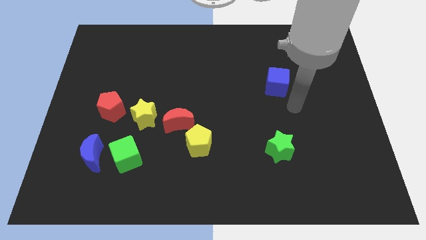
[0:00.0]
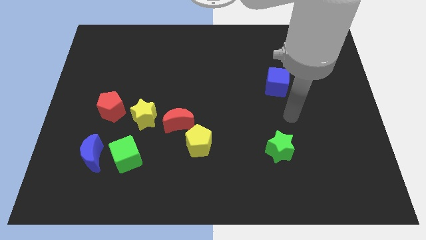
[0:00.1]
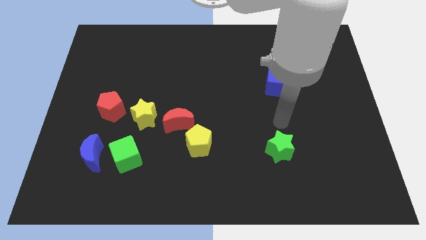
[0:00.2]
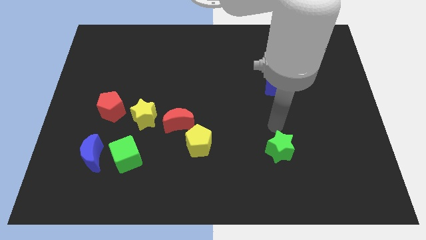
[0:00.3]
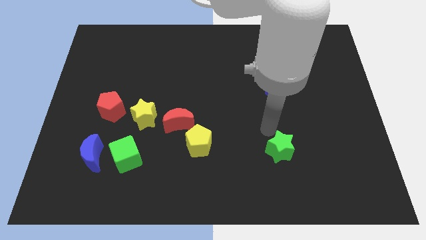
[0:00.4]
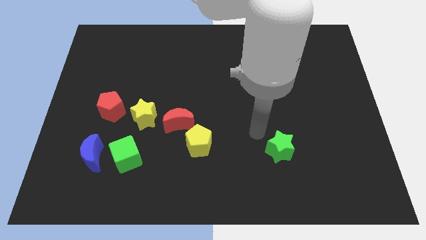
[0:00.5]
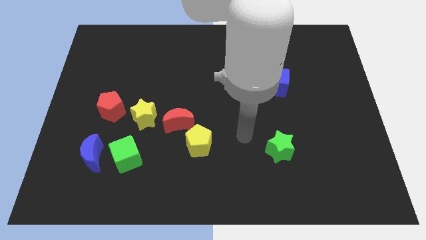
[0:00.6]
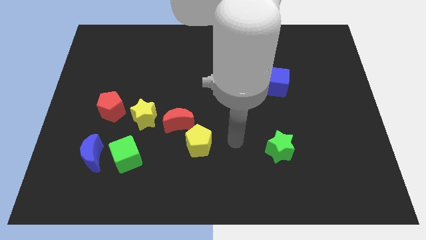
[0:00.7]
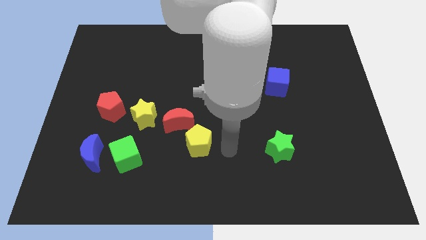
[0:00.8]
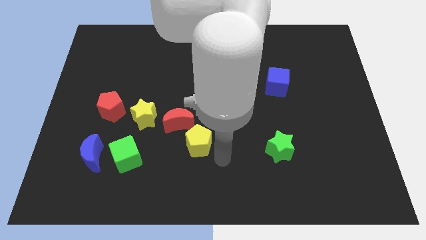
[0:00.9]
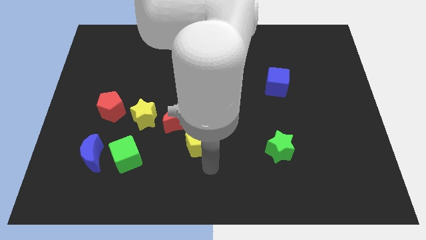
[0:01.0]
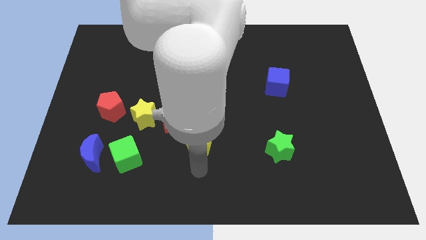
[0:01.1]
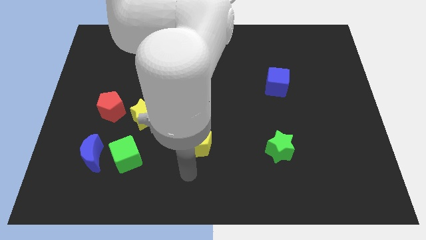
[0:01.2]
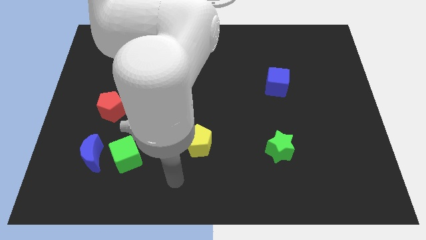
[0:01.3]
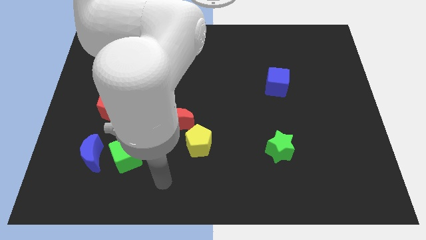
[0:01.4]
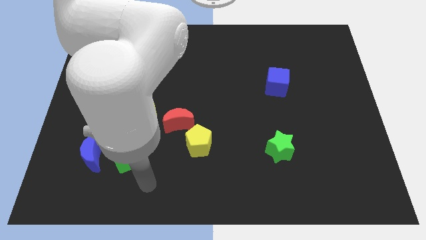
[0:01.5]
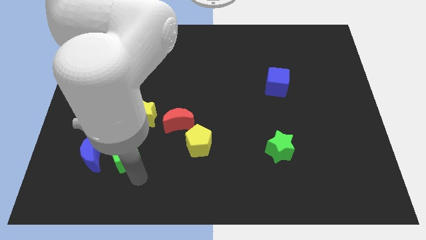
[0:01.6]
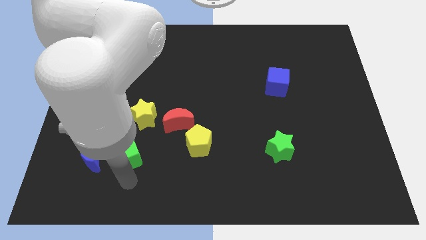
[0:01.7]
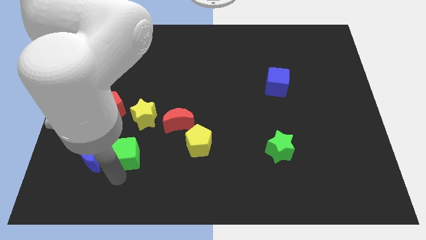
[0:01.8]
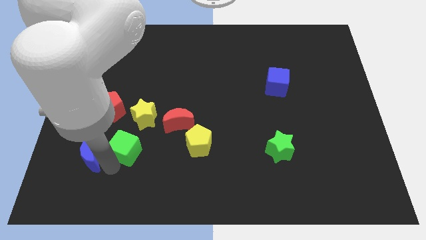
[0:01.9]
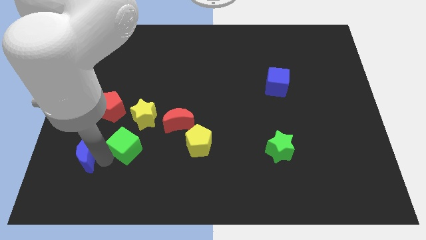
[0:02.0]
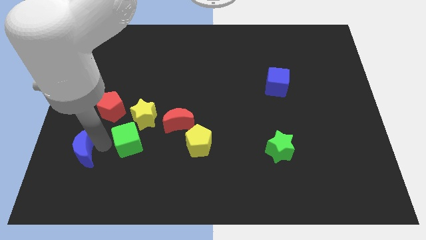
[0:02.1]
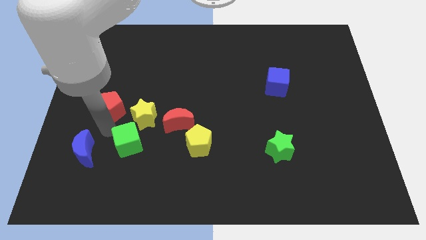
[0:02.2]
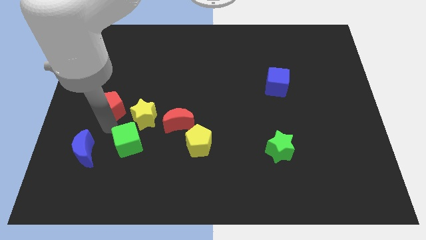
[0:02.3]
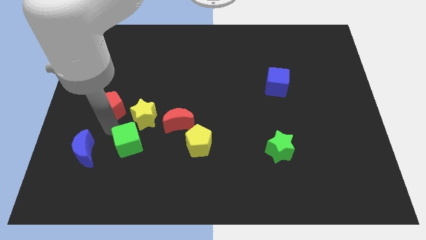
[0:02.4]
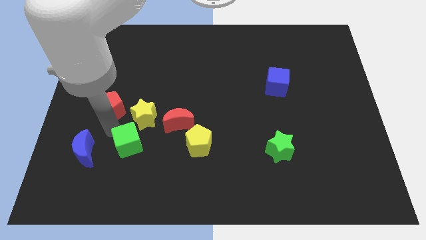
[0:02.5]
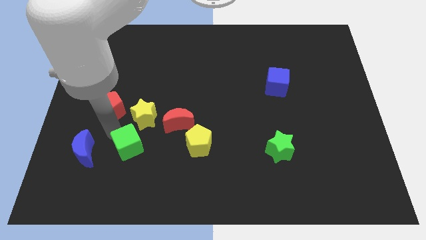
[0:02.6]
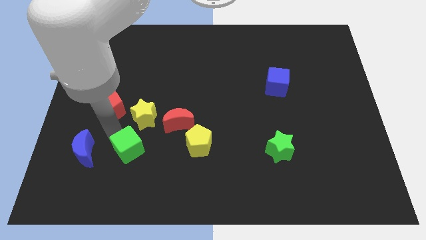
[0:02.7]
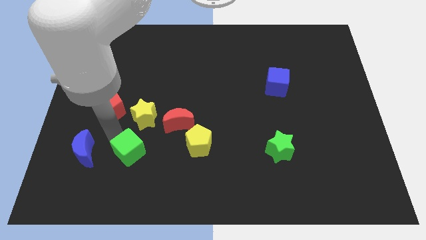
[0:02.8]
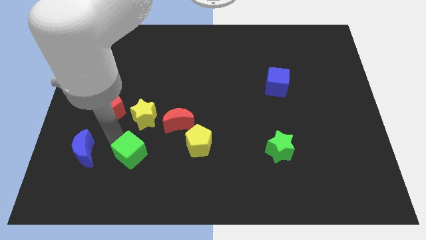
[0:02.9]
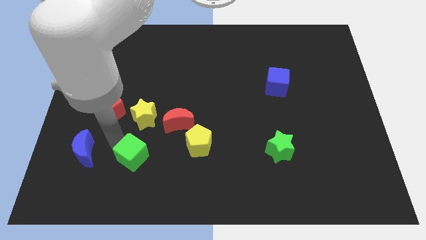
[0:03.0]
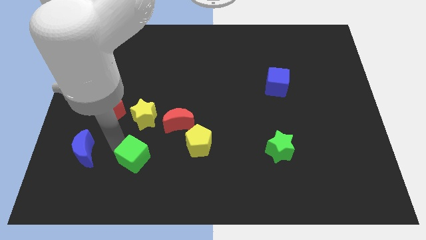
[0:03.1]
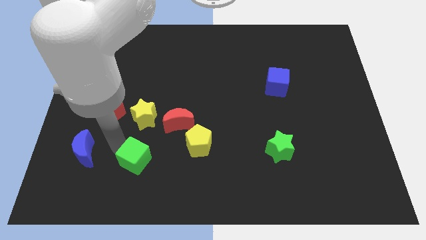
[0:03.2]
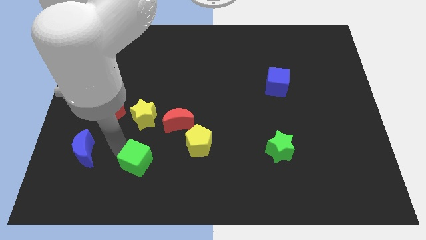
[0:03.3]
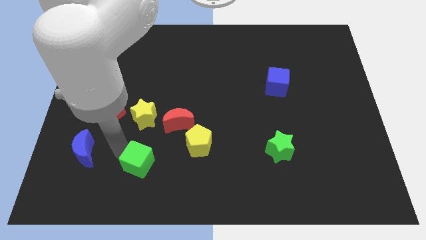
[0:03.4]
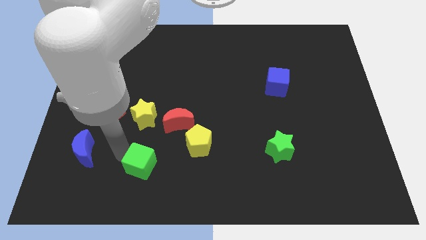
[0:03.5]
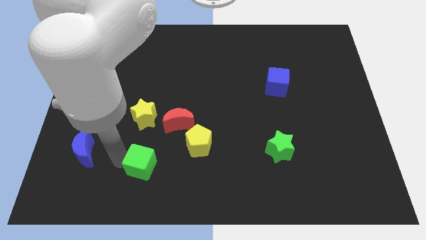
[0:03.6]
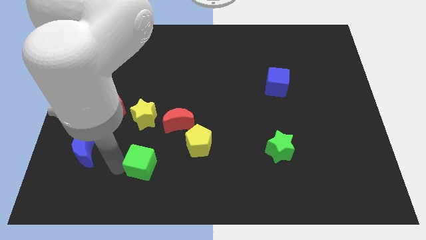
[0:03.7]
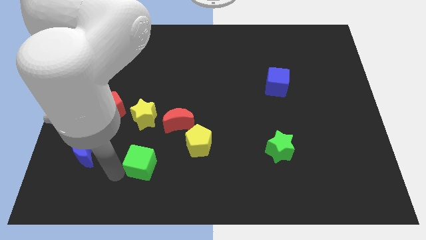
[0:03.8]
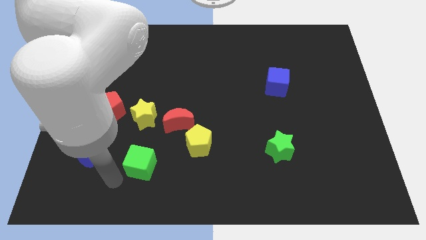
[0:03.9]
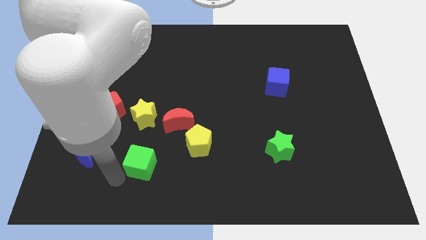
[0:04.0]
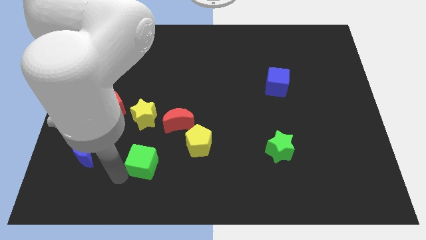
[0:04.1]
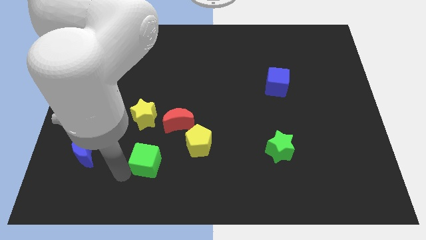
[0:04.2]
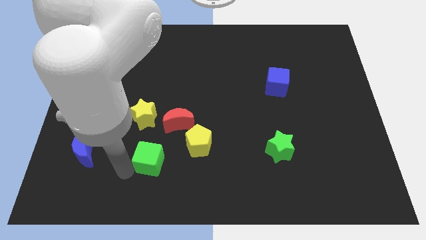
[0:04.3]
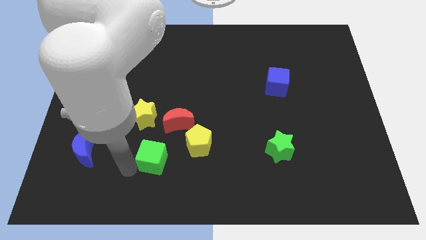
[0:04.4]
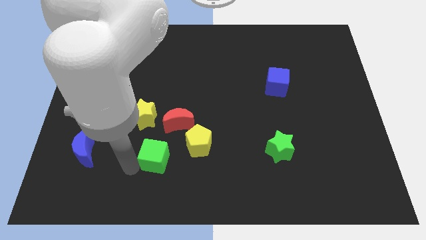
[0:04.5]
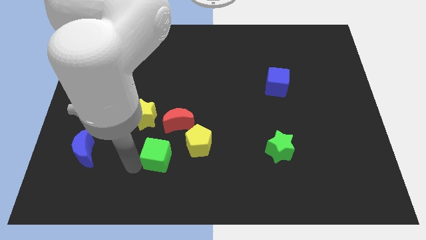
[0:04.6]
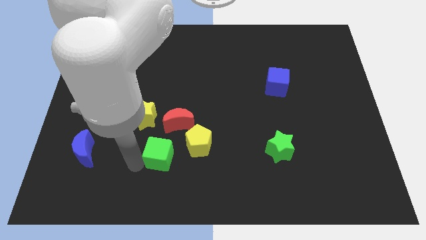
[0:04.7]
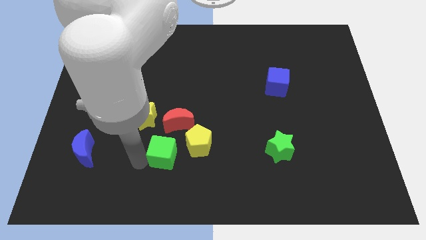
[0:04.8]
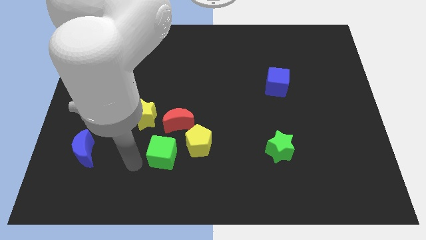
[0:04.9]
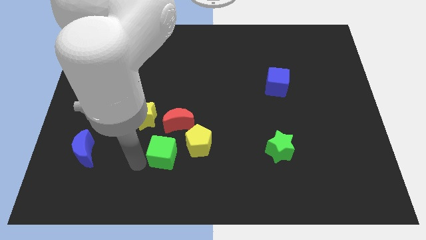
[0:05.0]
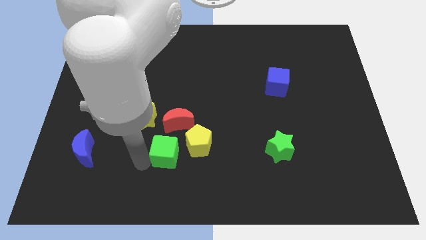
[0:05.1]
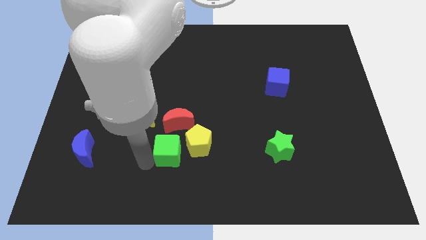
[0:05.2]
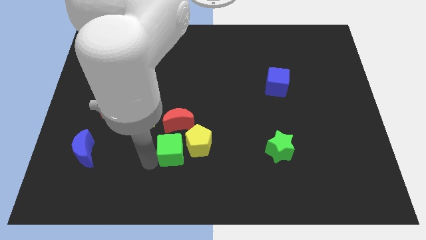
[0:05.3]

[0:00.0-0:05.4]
put the green cube to the yellow pentagon

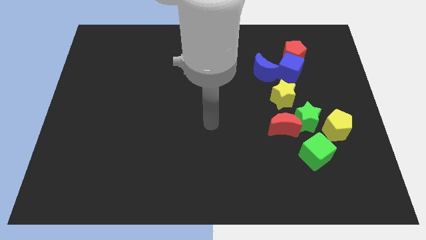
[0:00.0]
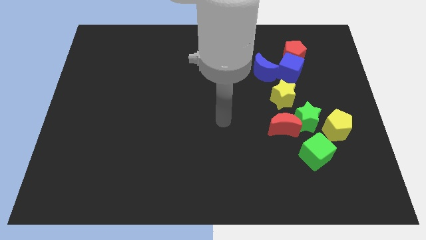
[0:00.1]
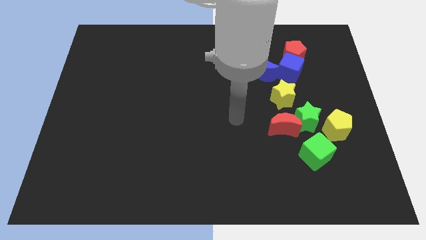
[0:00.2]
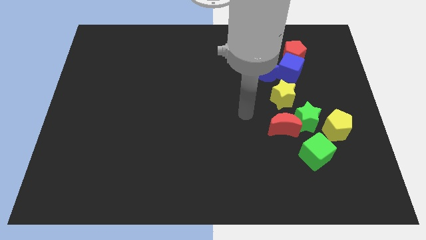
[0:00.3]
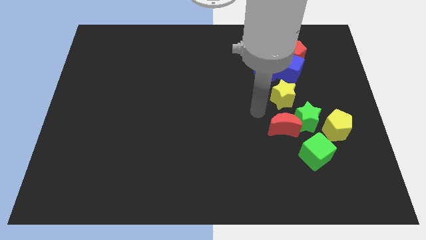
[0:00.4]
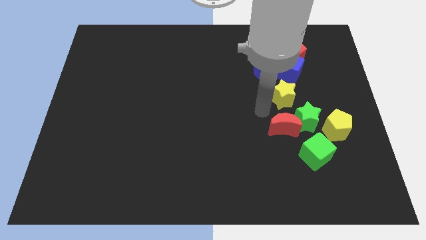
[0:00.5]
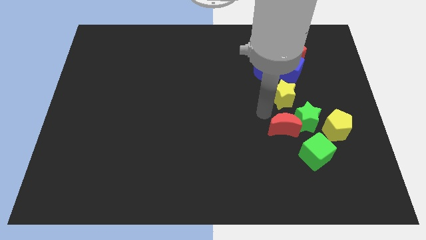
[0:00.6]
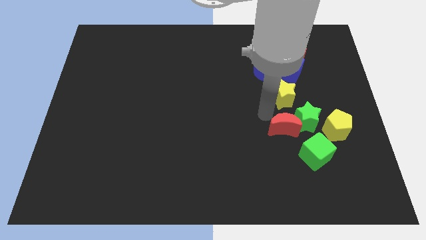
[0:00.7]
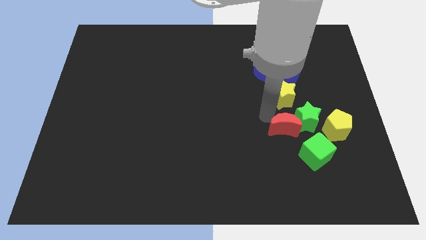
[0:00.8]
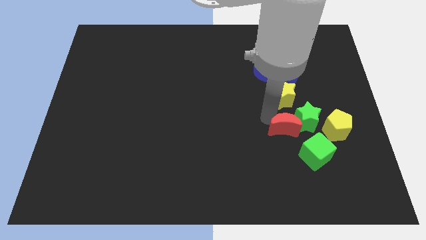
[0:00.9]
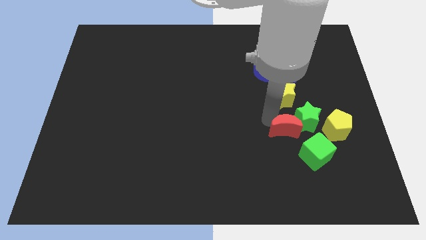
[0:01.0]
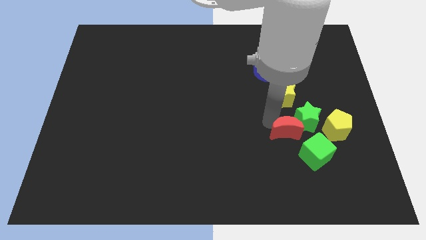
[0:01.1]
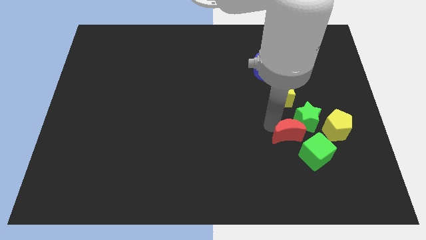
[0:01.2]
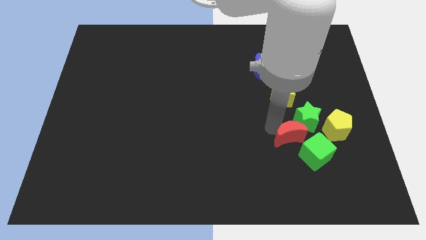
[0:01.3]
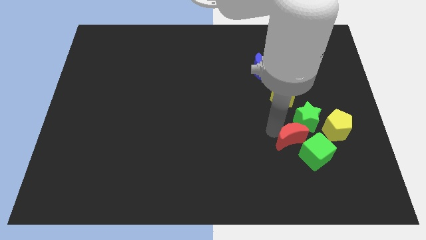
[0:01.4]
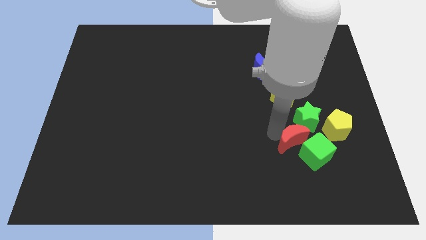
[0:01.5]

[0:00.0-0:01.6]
move the red moon close to the green cube
